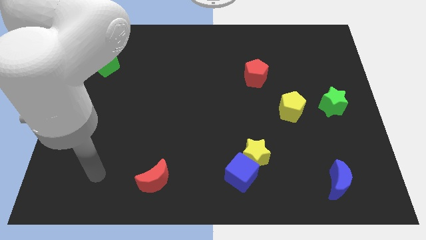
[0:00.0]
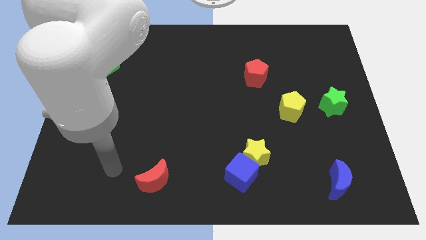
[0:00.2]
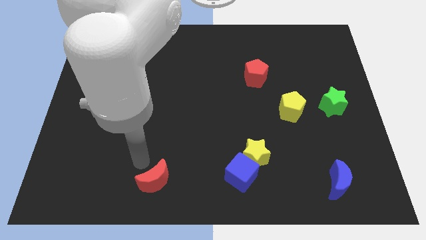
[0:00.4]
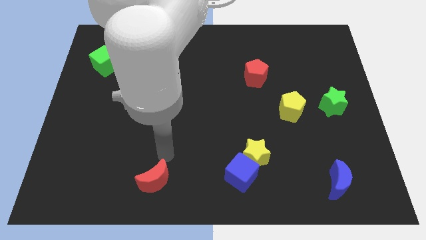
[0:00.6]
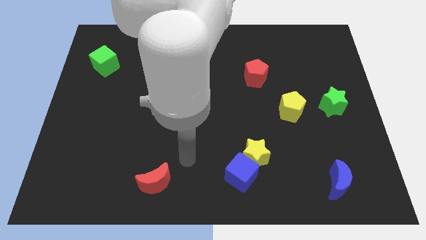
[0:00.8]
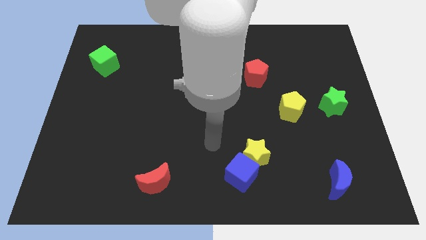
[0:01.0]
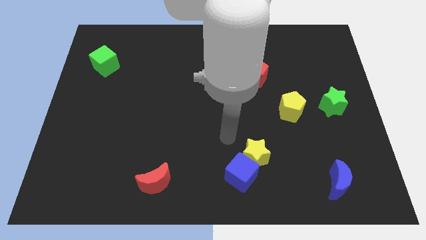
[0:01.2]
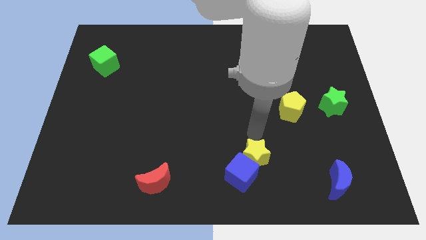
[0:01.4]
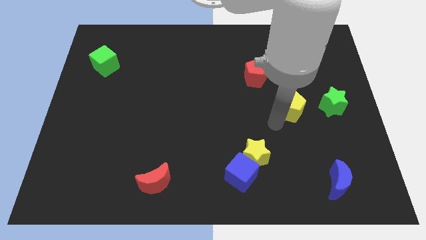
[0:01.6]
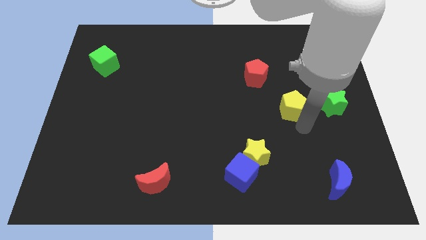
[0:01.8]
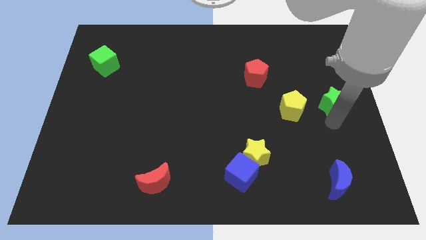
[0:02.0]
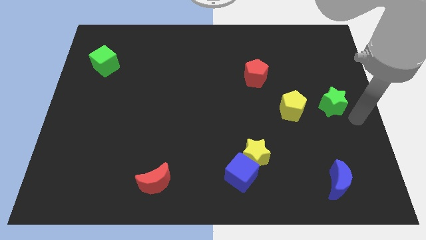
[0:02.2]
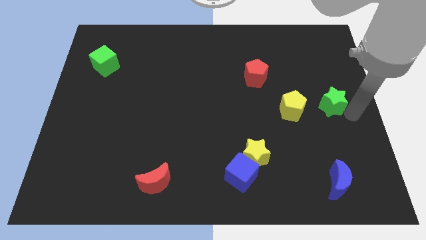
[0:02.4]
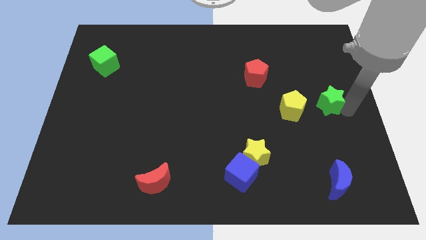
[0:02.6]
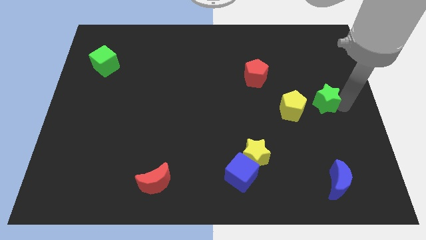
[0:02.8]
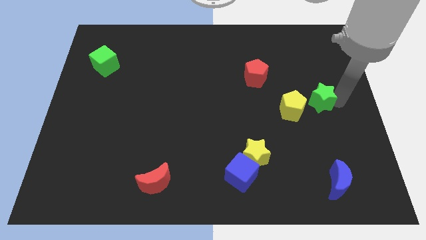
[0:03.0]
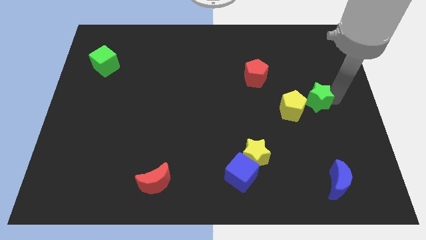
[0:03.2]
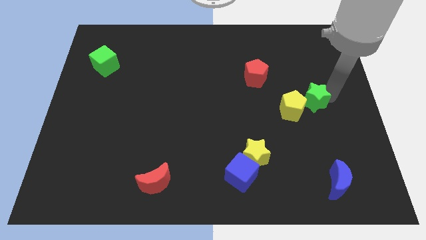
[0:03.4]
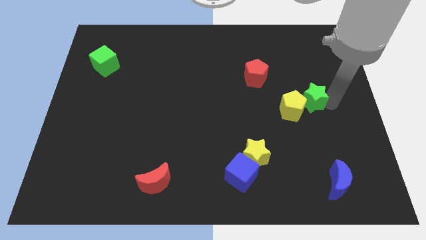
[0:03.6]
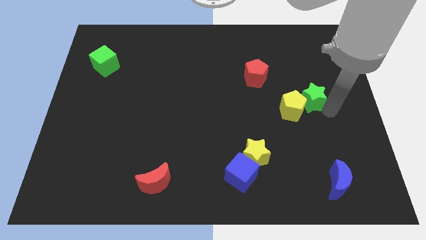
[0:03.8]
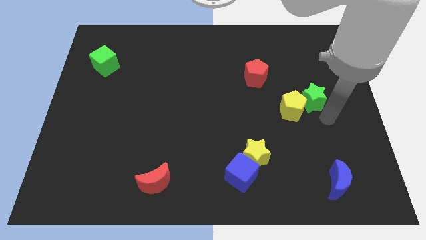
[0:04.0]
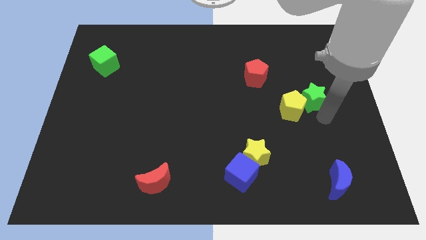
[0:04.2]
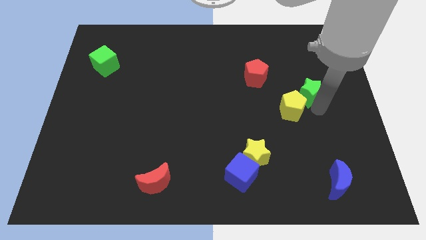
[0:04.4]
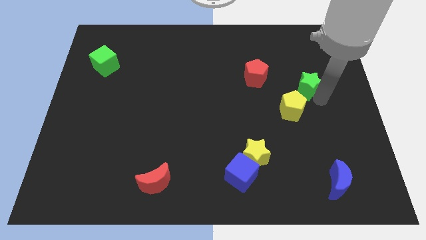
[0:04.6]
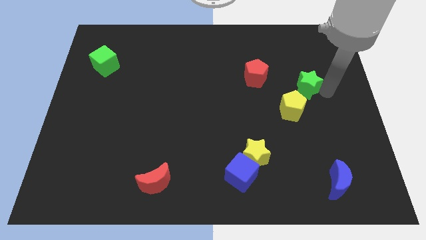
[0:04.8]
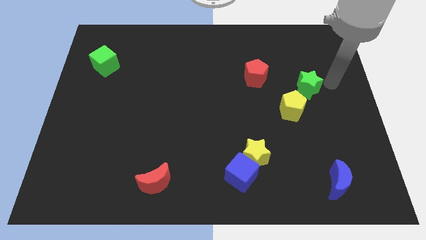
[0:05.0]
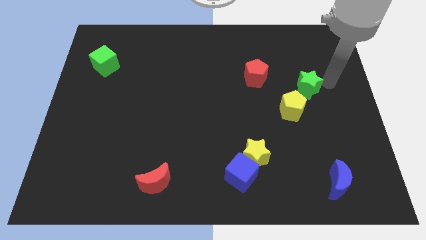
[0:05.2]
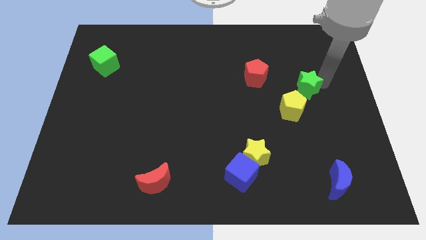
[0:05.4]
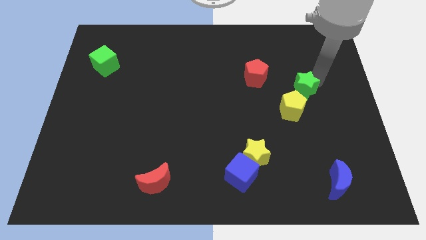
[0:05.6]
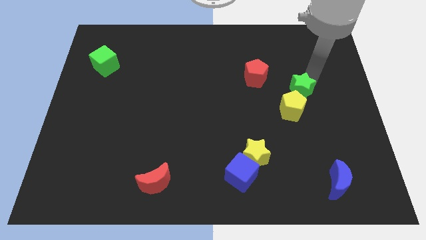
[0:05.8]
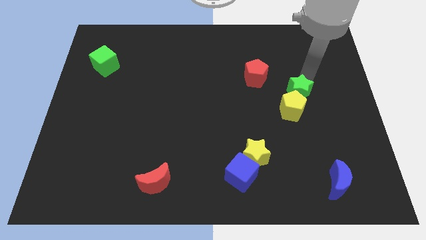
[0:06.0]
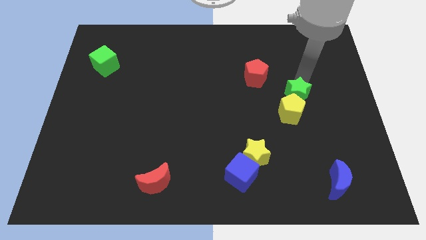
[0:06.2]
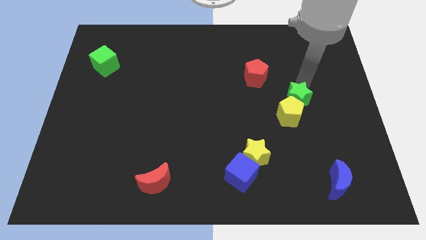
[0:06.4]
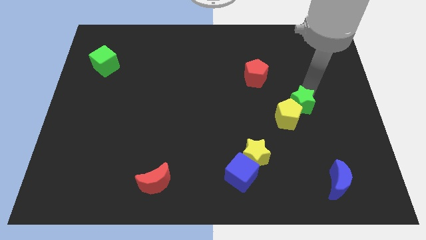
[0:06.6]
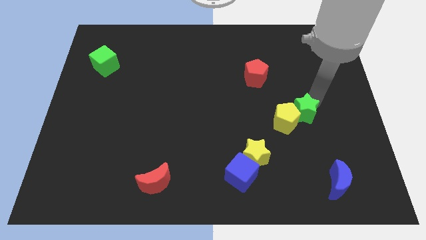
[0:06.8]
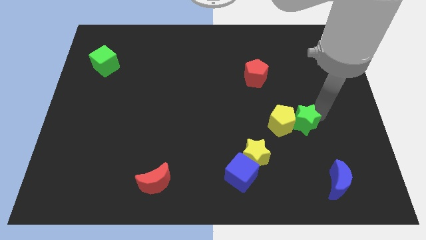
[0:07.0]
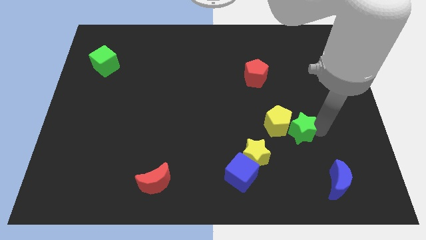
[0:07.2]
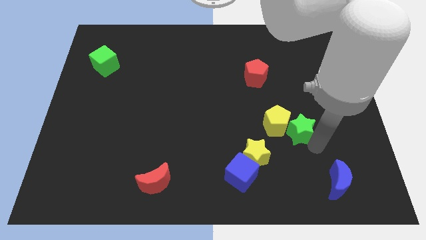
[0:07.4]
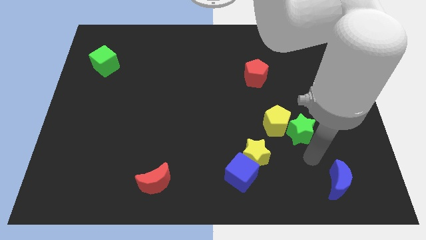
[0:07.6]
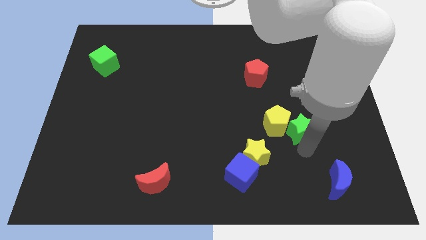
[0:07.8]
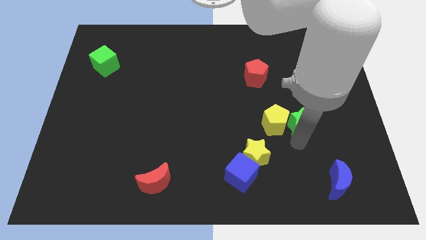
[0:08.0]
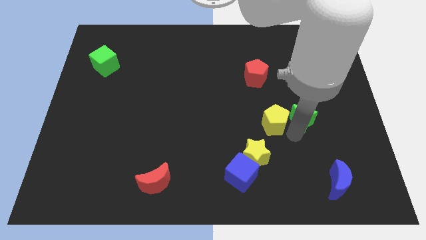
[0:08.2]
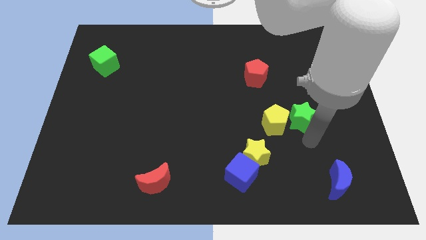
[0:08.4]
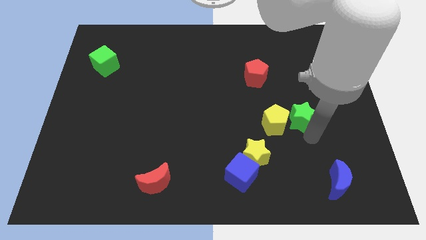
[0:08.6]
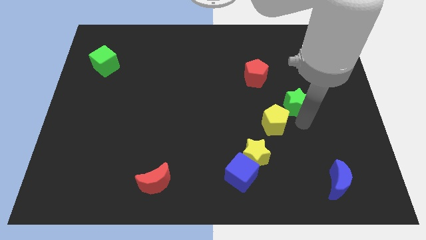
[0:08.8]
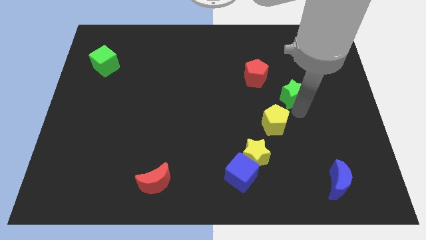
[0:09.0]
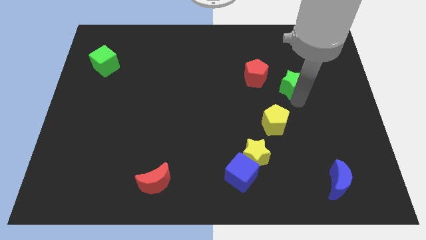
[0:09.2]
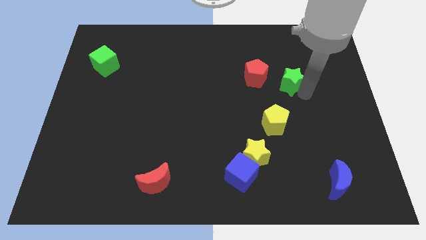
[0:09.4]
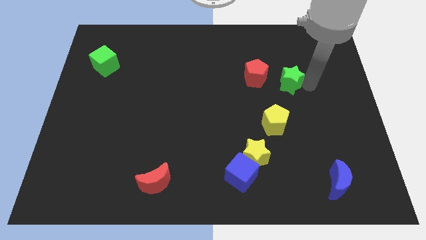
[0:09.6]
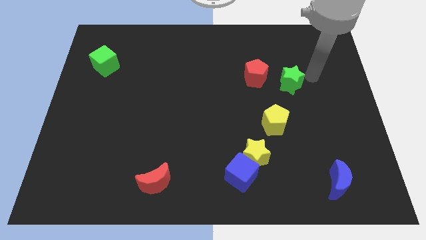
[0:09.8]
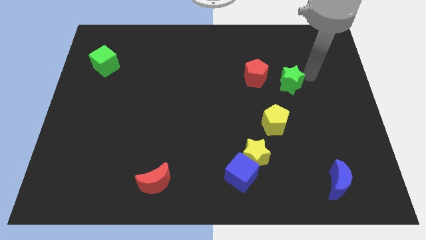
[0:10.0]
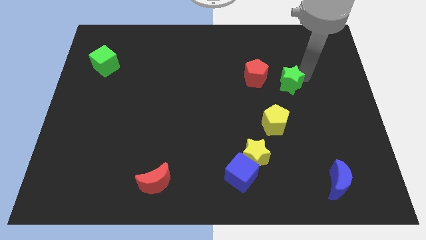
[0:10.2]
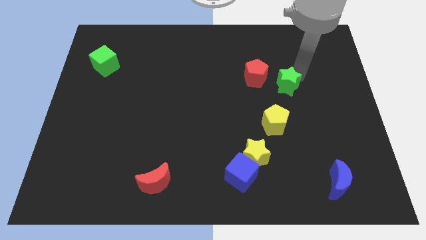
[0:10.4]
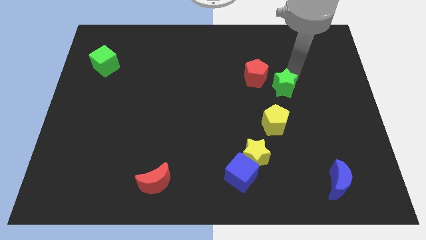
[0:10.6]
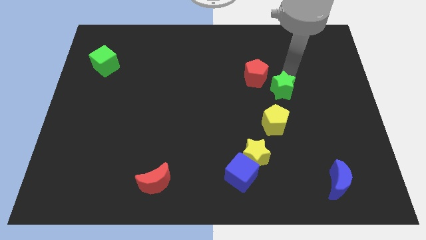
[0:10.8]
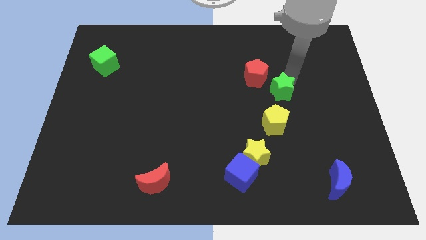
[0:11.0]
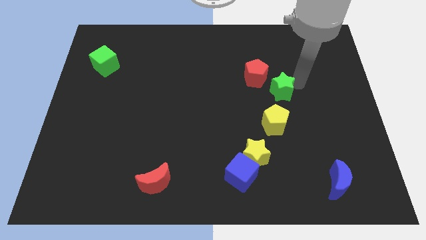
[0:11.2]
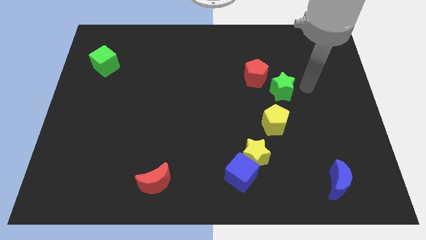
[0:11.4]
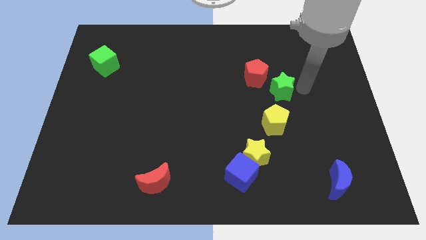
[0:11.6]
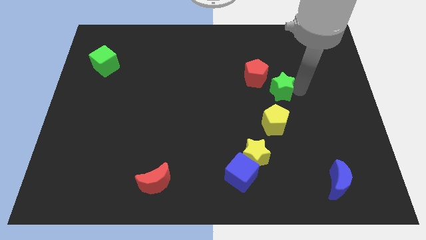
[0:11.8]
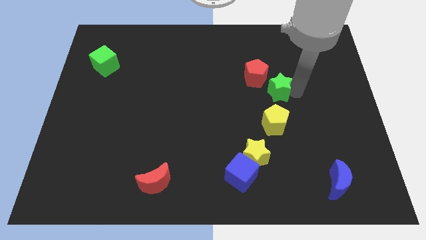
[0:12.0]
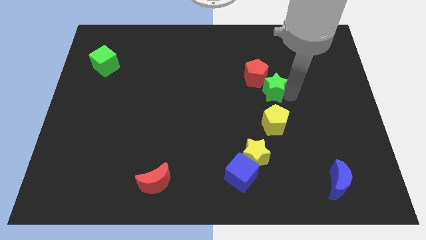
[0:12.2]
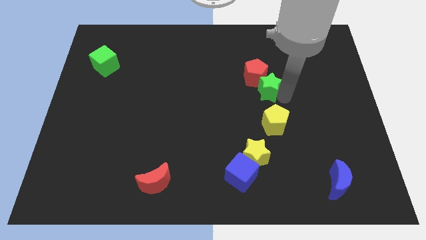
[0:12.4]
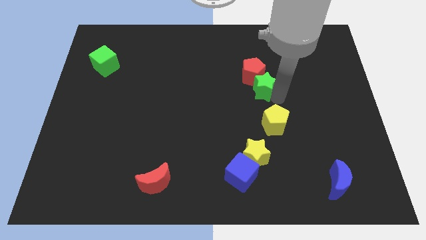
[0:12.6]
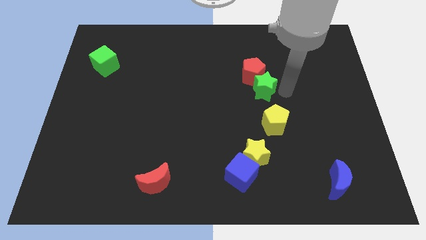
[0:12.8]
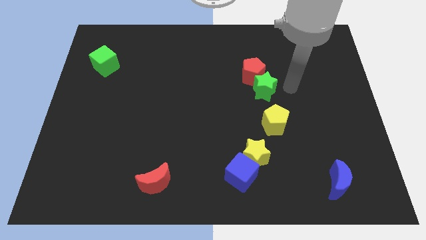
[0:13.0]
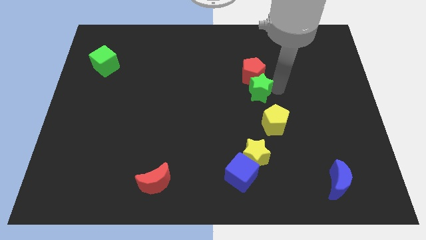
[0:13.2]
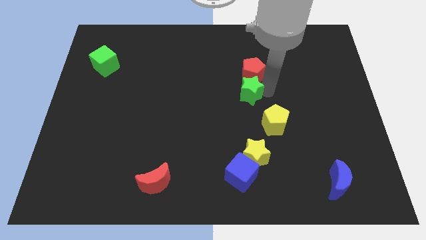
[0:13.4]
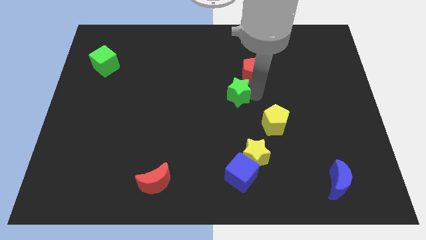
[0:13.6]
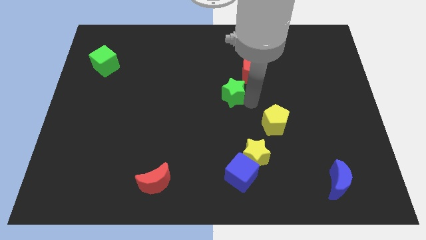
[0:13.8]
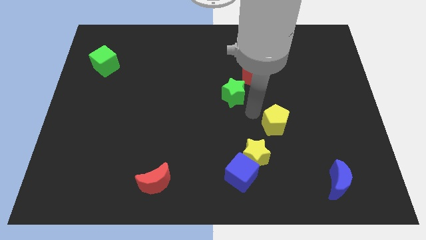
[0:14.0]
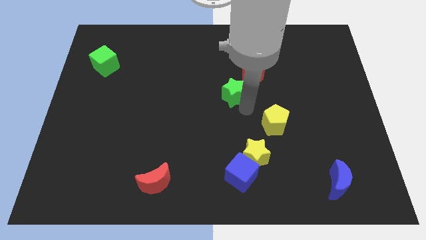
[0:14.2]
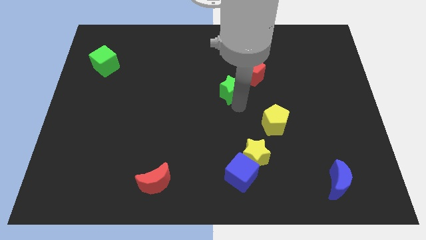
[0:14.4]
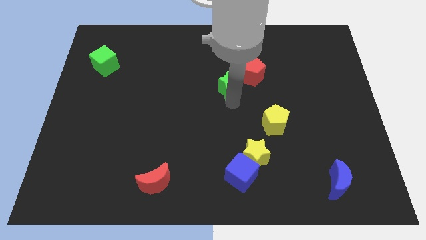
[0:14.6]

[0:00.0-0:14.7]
push the green star to the left side of the red pentagon
